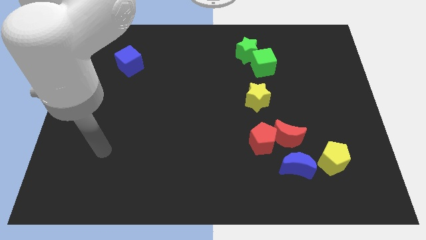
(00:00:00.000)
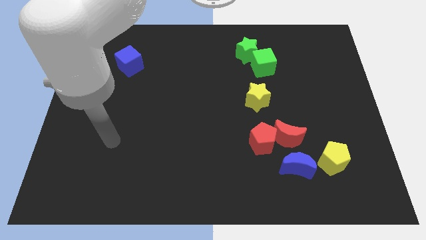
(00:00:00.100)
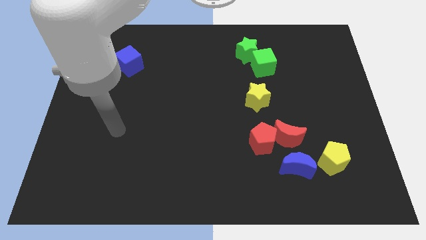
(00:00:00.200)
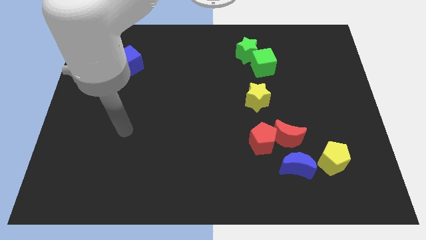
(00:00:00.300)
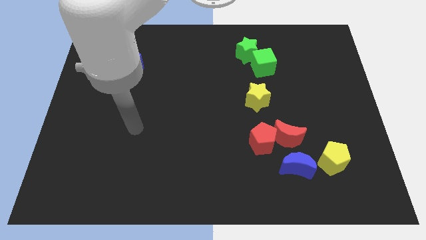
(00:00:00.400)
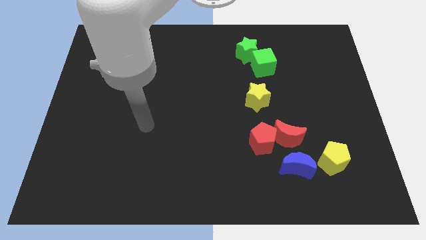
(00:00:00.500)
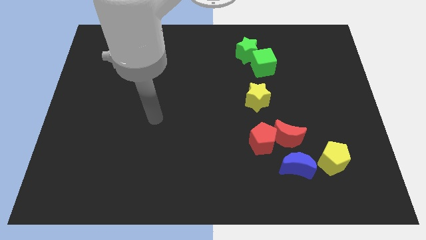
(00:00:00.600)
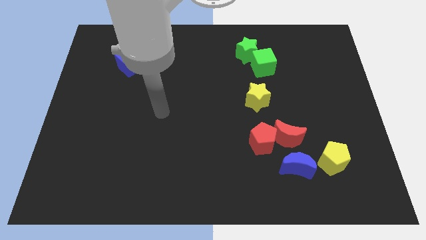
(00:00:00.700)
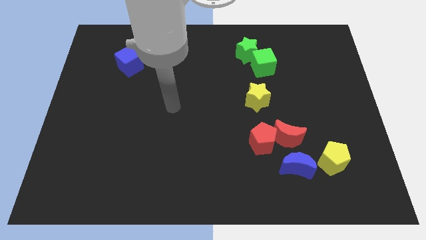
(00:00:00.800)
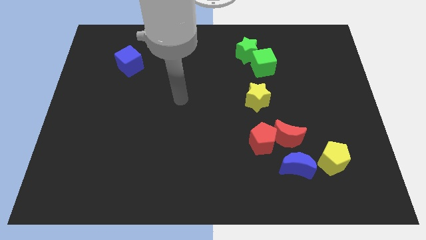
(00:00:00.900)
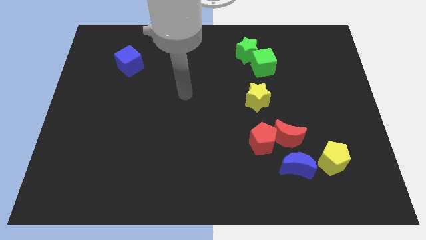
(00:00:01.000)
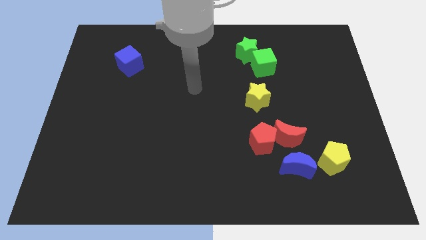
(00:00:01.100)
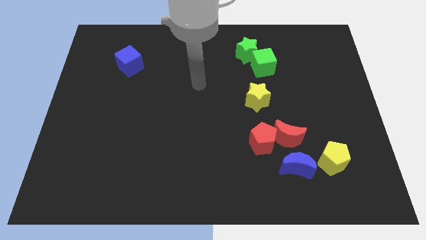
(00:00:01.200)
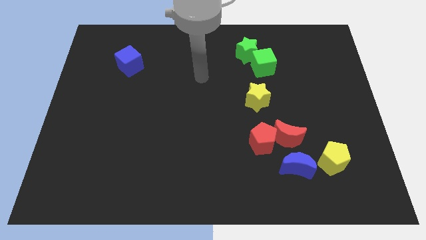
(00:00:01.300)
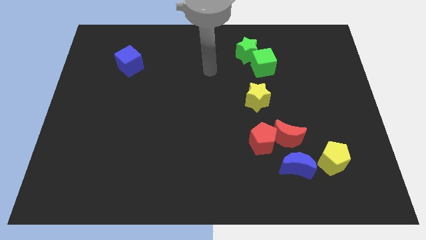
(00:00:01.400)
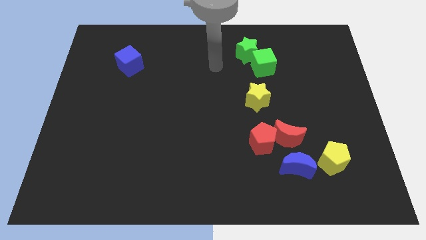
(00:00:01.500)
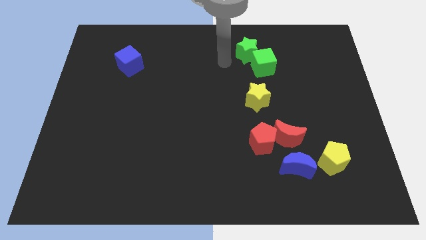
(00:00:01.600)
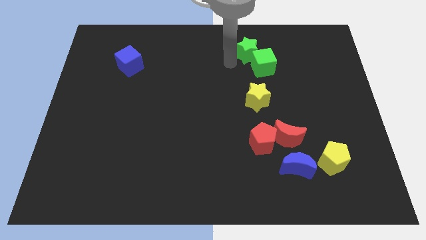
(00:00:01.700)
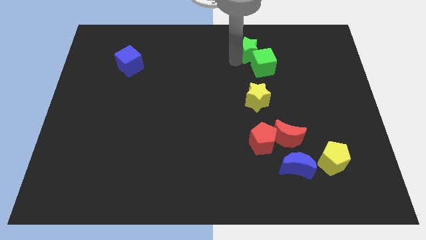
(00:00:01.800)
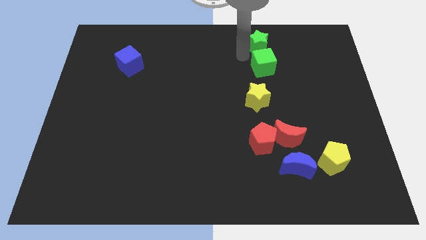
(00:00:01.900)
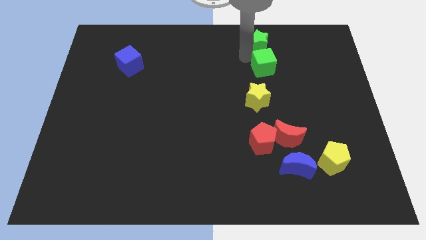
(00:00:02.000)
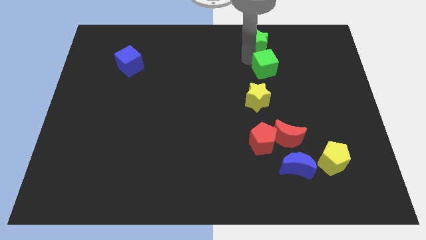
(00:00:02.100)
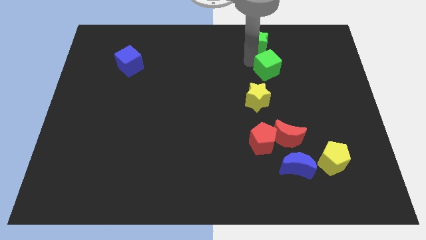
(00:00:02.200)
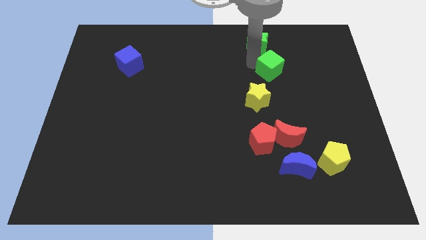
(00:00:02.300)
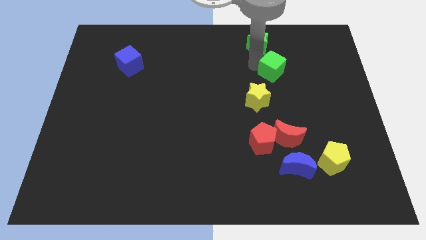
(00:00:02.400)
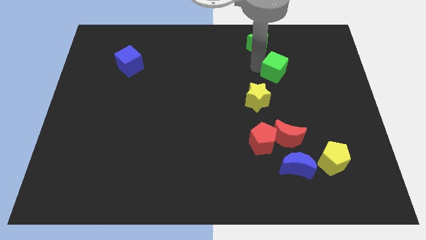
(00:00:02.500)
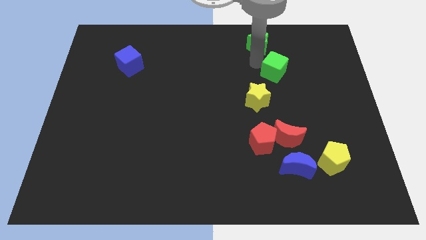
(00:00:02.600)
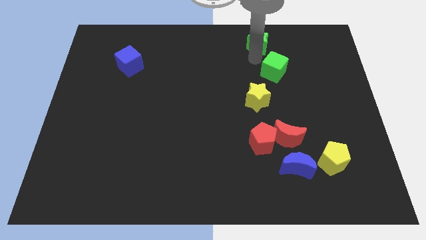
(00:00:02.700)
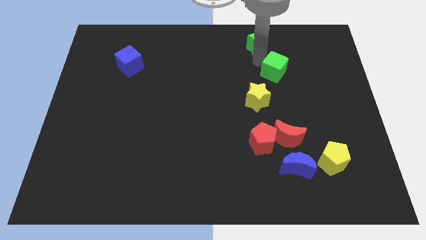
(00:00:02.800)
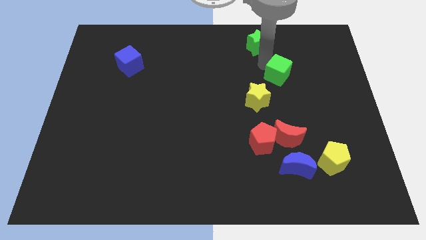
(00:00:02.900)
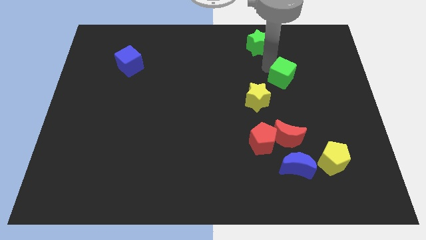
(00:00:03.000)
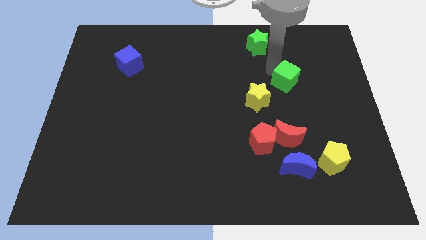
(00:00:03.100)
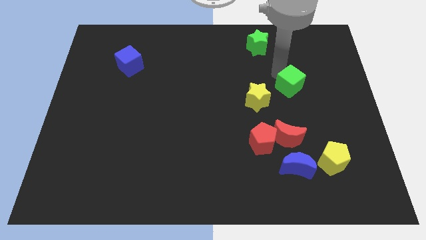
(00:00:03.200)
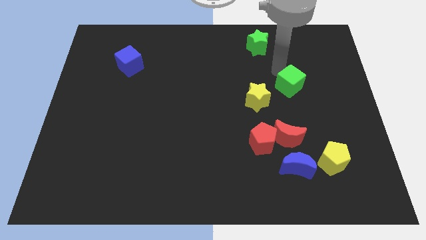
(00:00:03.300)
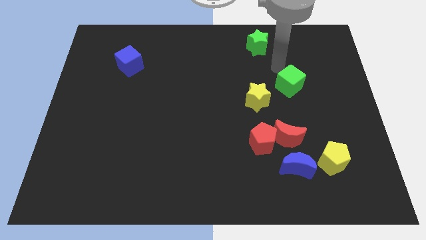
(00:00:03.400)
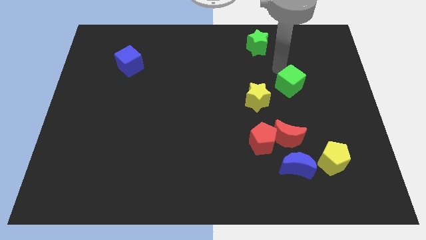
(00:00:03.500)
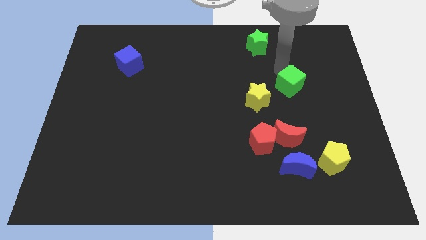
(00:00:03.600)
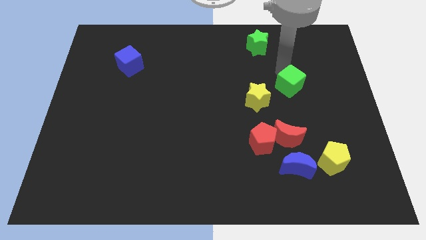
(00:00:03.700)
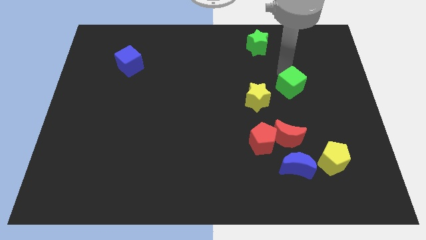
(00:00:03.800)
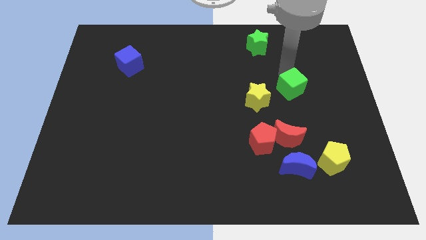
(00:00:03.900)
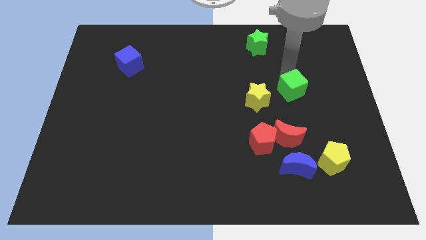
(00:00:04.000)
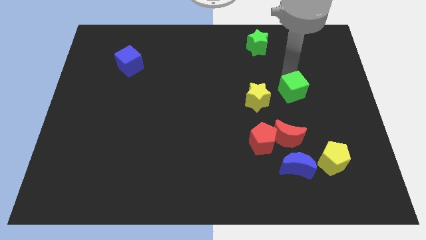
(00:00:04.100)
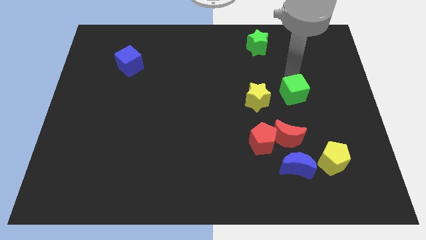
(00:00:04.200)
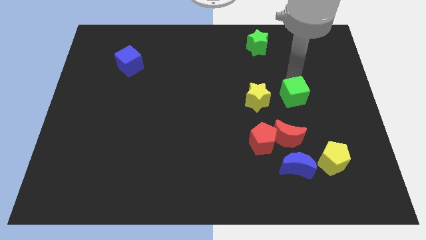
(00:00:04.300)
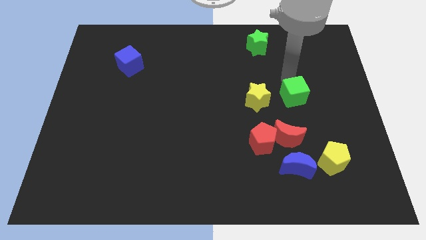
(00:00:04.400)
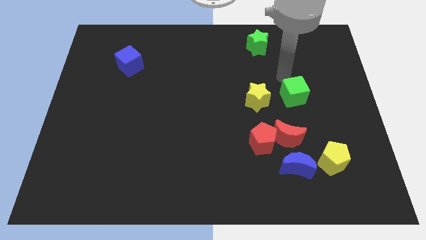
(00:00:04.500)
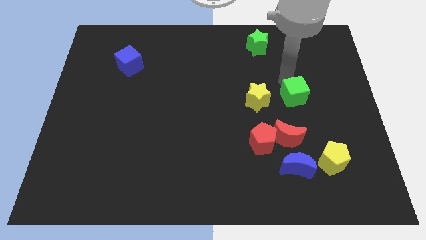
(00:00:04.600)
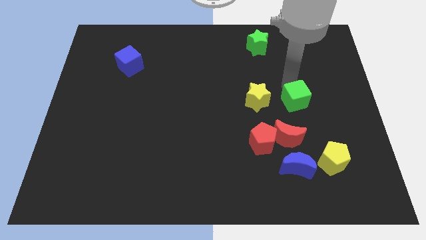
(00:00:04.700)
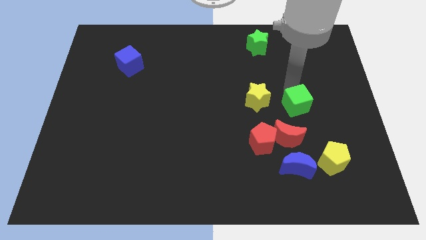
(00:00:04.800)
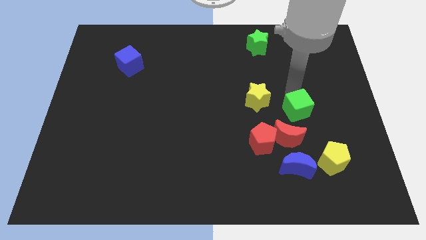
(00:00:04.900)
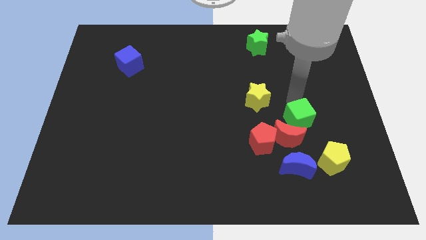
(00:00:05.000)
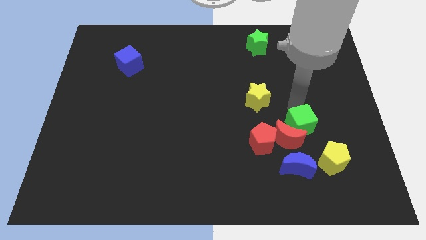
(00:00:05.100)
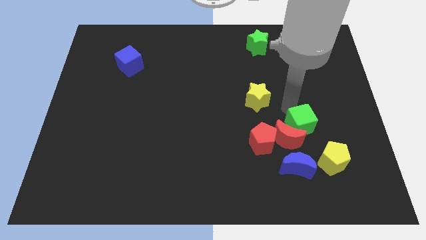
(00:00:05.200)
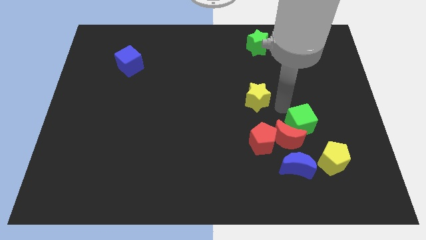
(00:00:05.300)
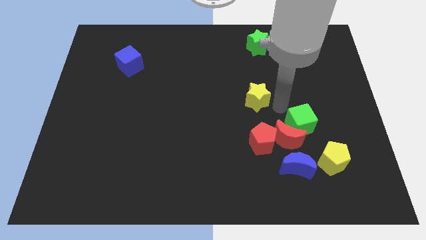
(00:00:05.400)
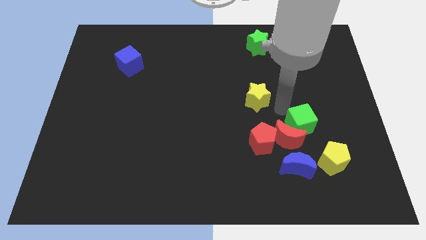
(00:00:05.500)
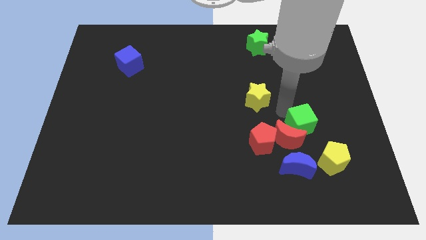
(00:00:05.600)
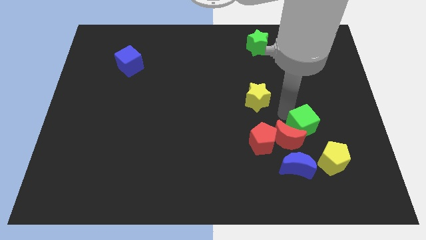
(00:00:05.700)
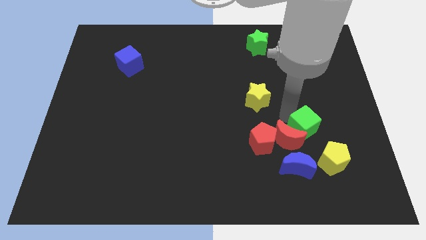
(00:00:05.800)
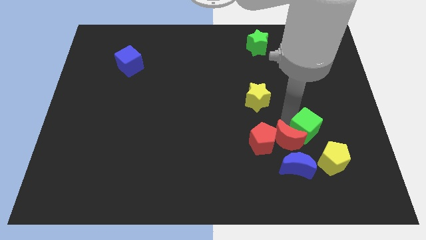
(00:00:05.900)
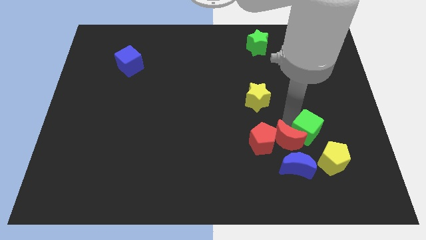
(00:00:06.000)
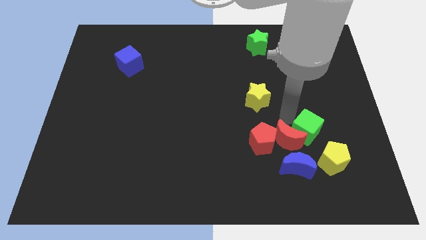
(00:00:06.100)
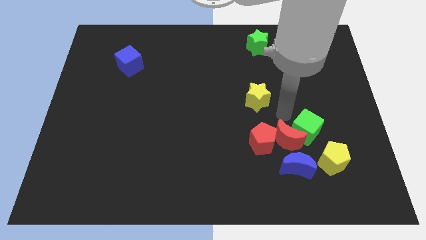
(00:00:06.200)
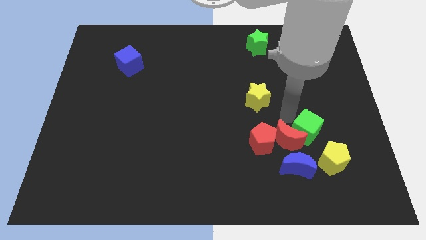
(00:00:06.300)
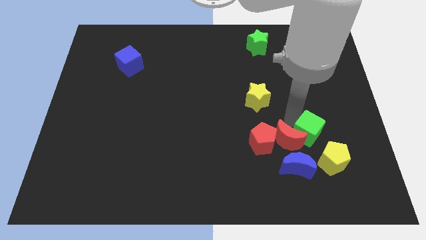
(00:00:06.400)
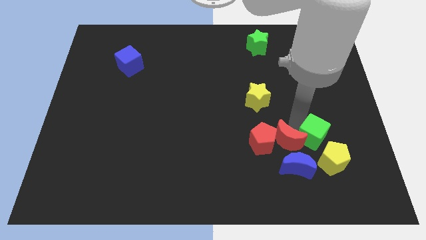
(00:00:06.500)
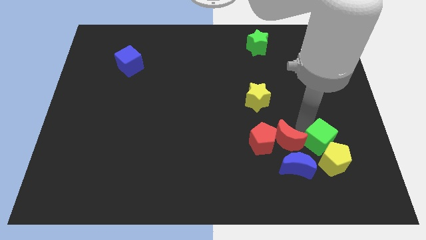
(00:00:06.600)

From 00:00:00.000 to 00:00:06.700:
move the green cube to the yellow pentagon

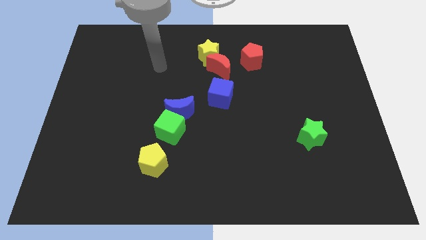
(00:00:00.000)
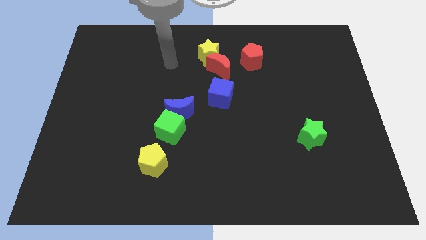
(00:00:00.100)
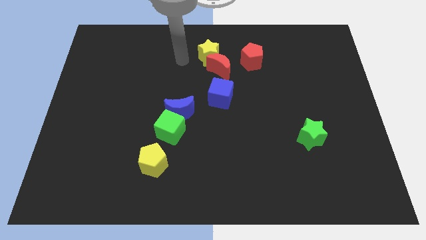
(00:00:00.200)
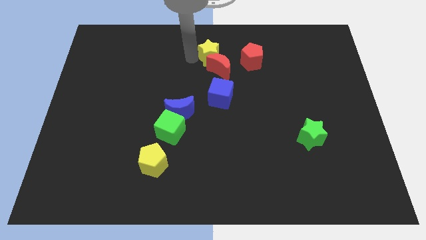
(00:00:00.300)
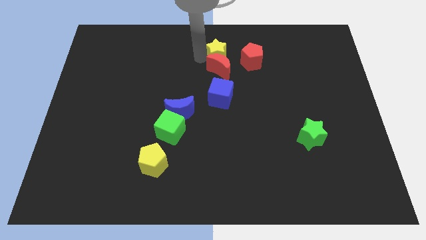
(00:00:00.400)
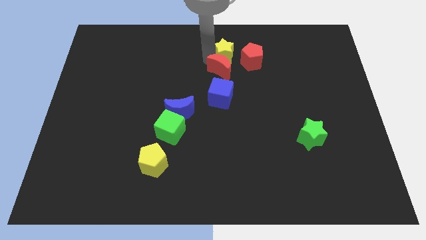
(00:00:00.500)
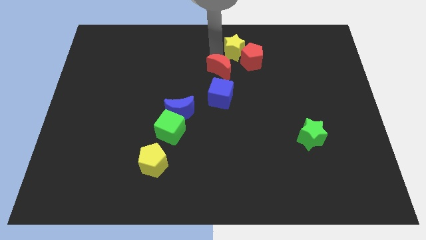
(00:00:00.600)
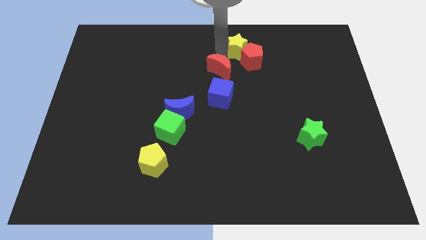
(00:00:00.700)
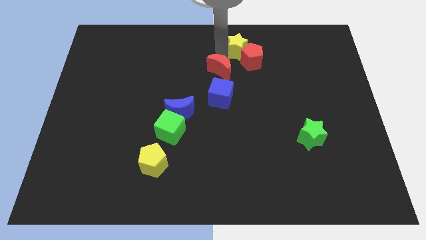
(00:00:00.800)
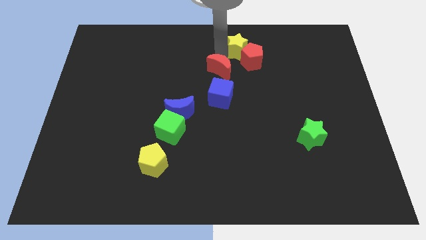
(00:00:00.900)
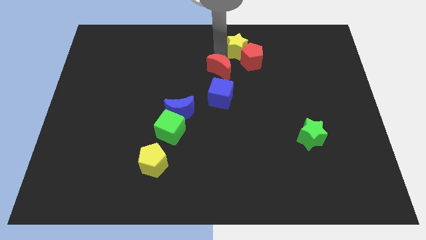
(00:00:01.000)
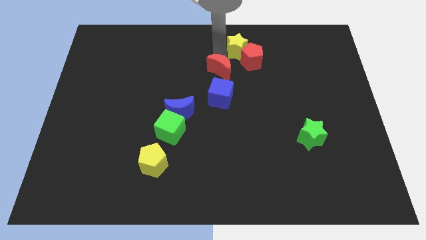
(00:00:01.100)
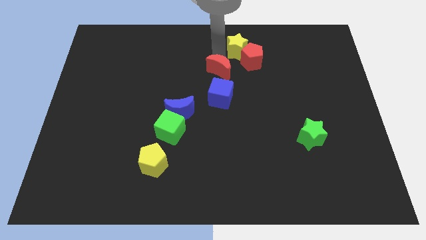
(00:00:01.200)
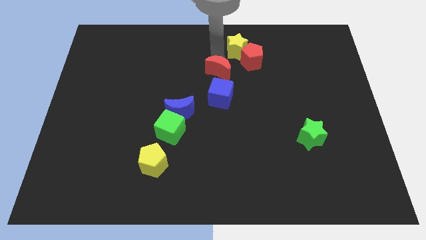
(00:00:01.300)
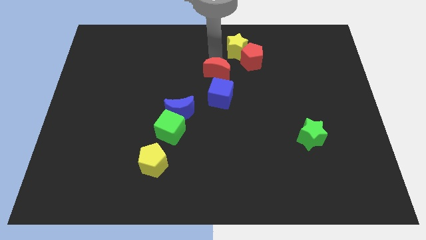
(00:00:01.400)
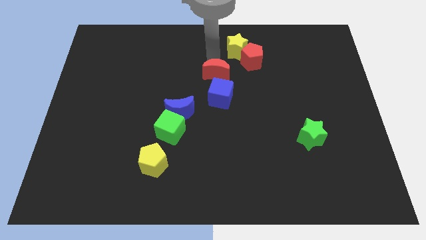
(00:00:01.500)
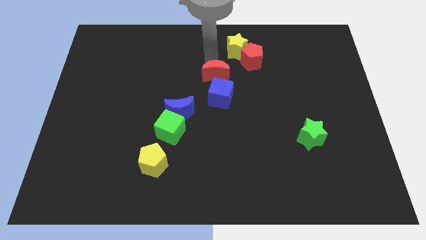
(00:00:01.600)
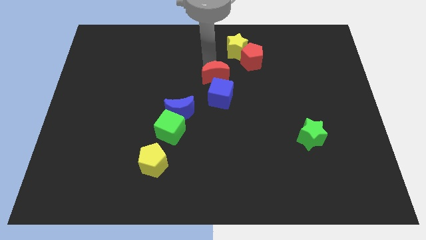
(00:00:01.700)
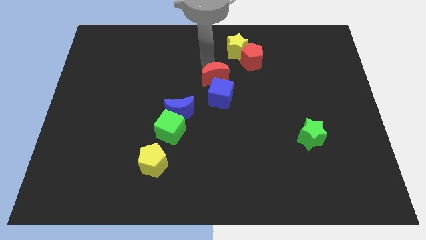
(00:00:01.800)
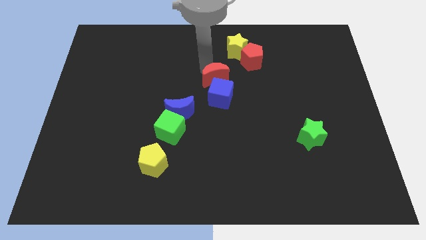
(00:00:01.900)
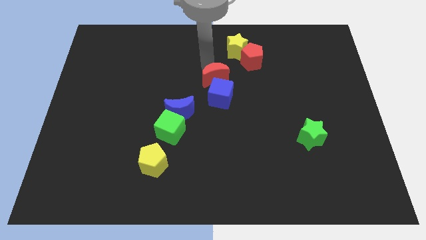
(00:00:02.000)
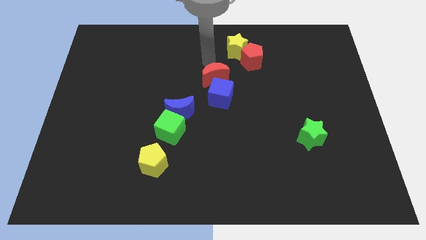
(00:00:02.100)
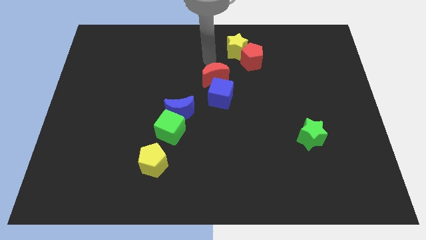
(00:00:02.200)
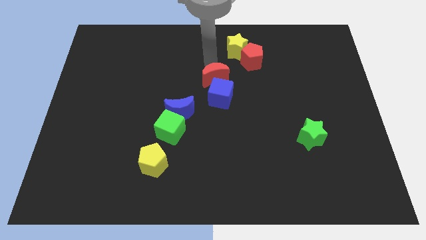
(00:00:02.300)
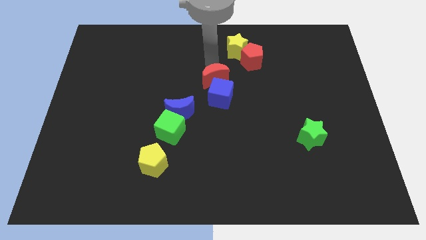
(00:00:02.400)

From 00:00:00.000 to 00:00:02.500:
move the red moon close to the blue cube
